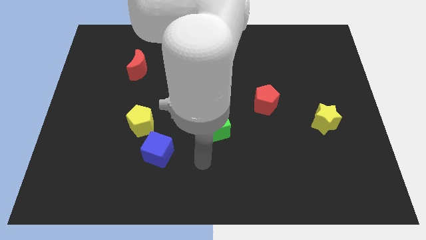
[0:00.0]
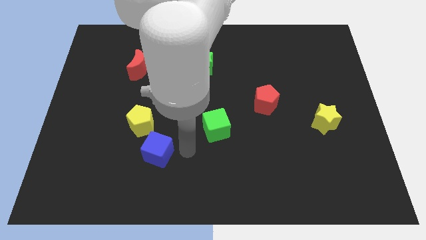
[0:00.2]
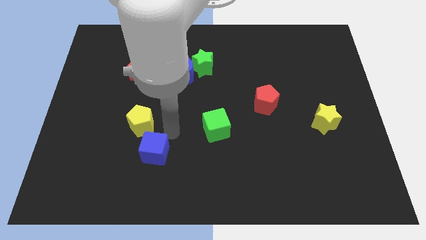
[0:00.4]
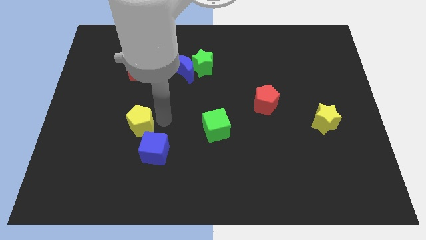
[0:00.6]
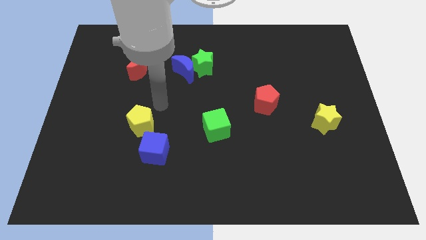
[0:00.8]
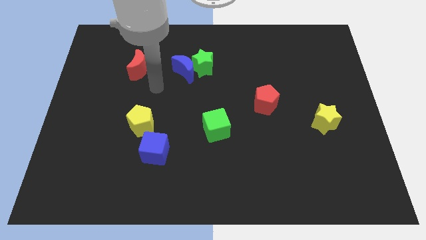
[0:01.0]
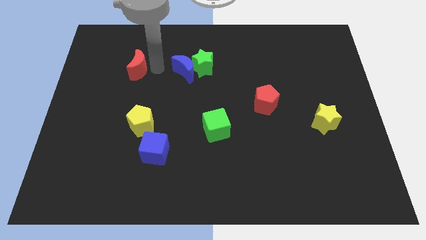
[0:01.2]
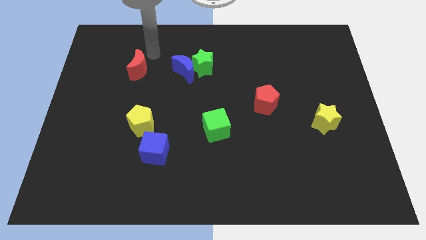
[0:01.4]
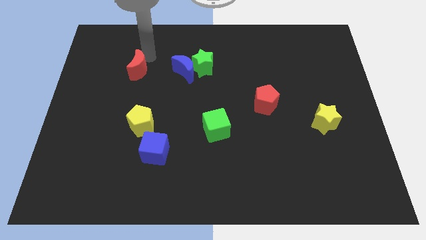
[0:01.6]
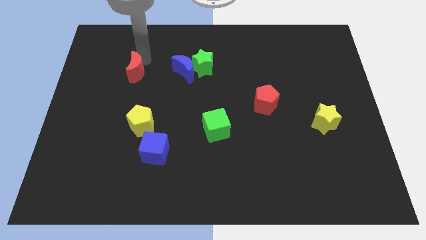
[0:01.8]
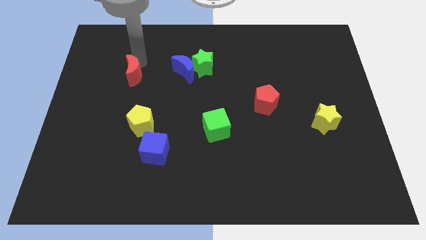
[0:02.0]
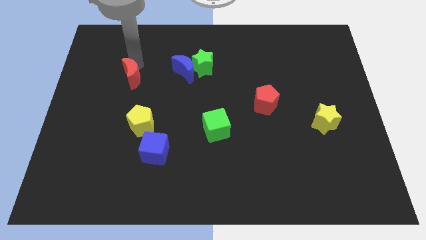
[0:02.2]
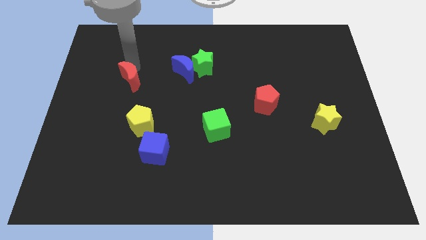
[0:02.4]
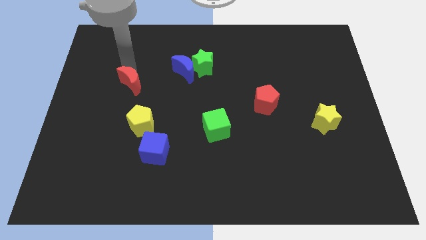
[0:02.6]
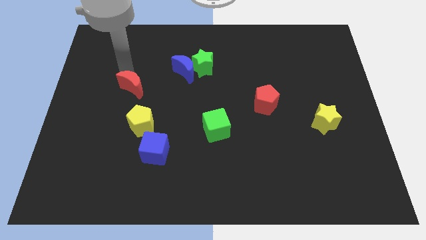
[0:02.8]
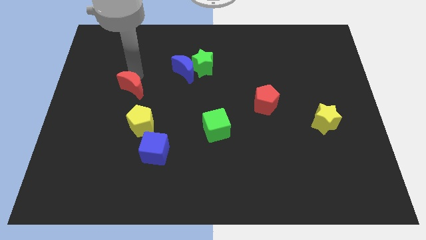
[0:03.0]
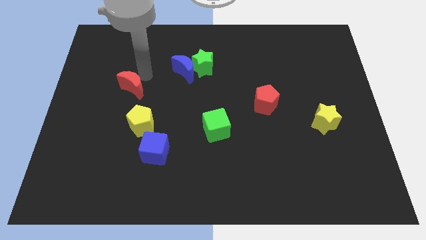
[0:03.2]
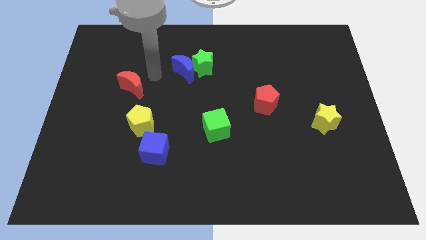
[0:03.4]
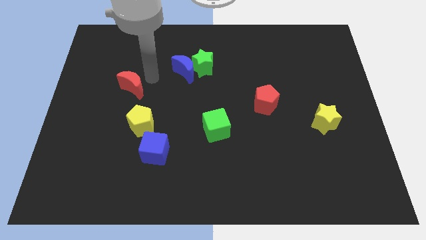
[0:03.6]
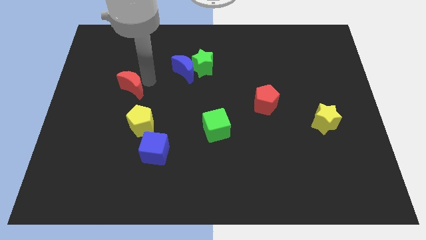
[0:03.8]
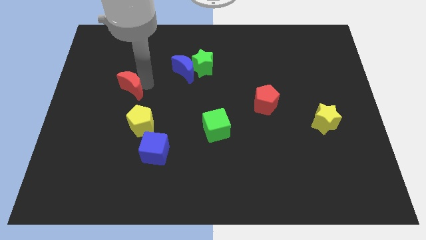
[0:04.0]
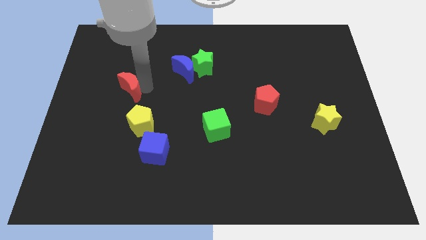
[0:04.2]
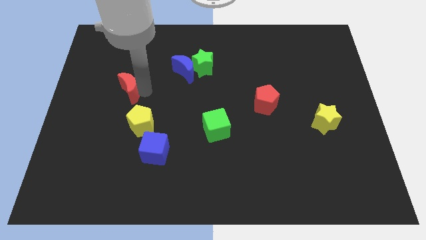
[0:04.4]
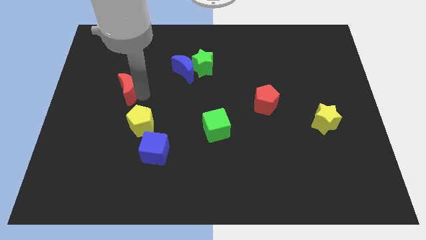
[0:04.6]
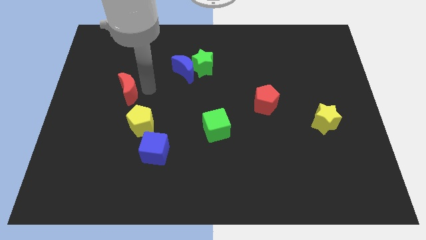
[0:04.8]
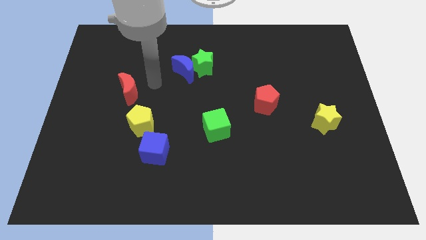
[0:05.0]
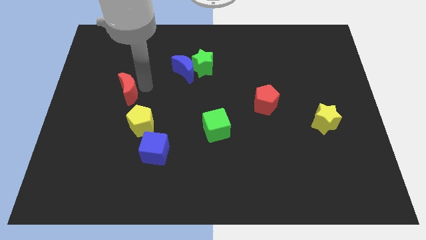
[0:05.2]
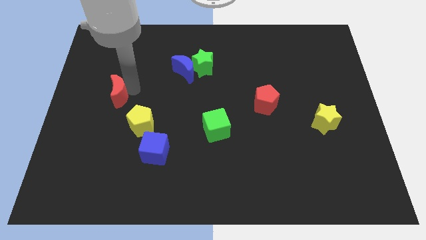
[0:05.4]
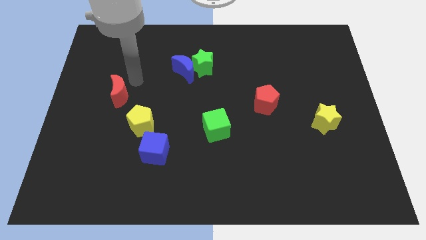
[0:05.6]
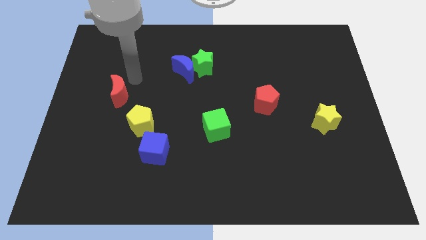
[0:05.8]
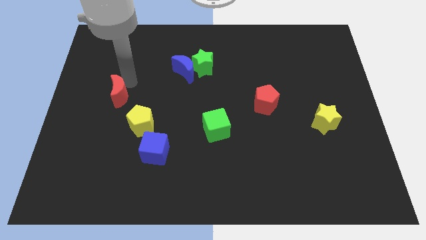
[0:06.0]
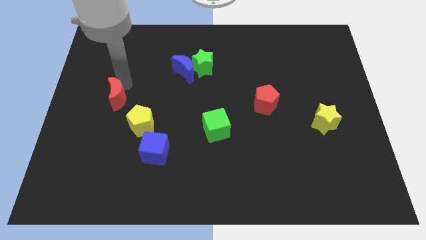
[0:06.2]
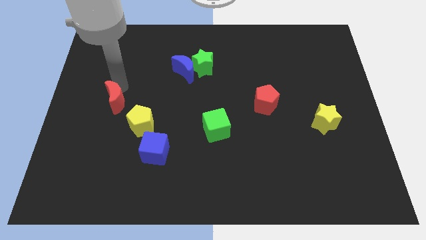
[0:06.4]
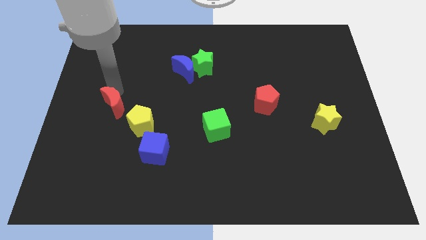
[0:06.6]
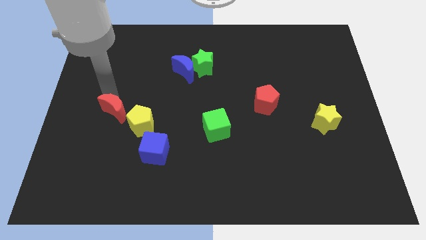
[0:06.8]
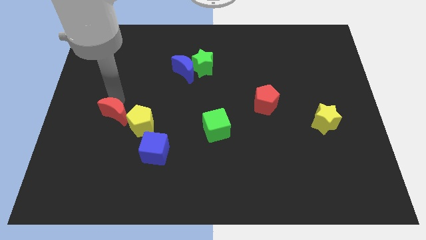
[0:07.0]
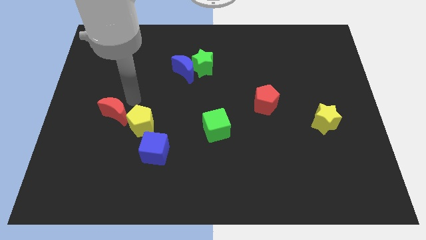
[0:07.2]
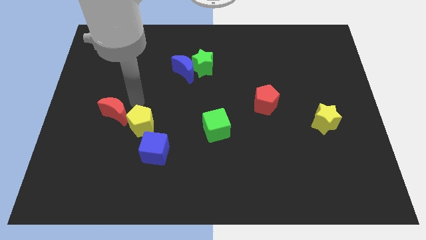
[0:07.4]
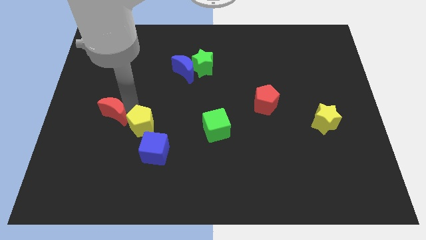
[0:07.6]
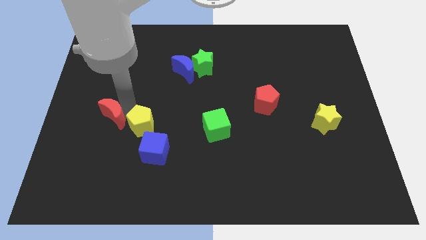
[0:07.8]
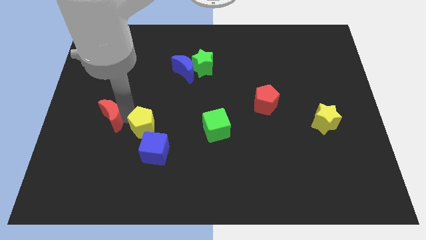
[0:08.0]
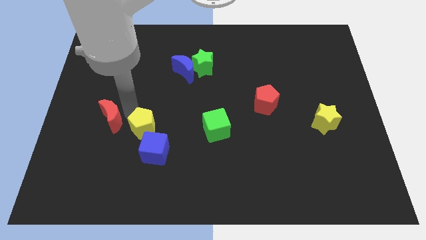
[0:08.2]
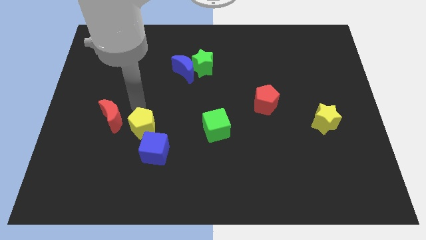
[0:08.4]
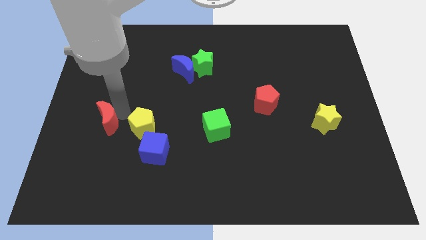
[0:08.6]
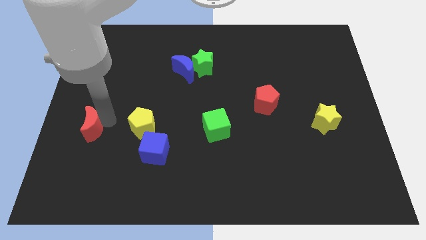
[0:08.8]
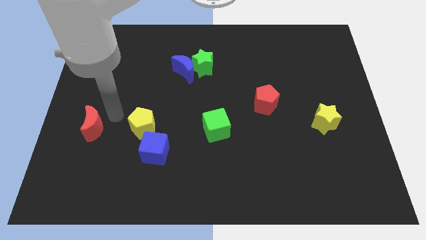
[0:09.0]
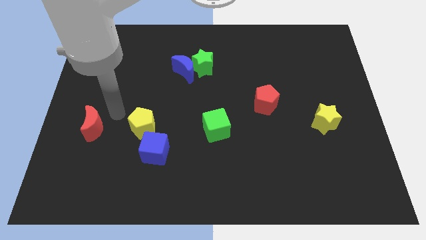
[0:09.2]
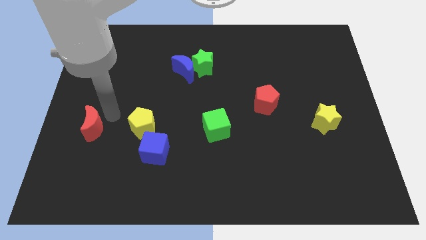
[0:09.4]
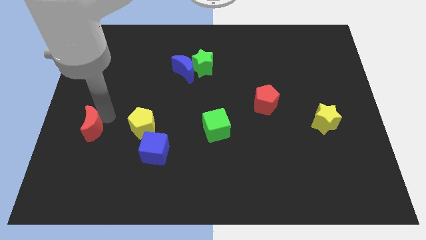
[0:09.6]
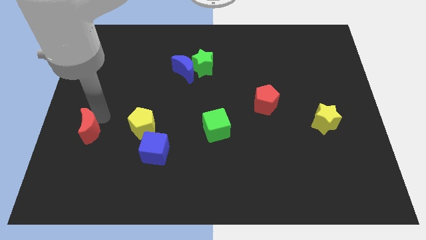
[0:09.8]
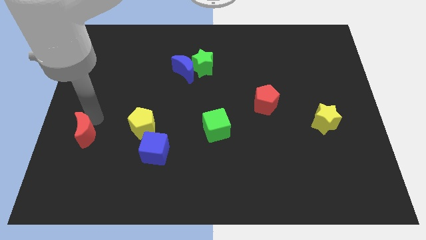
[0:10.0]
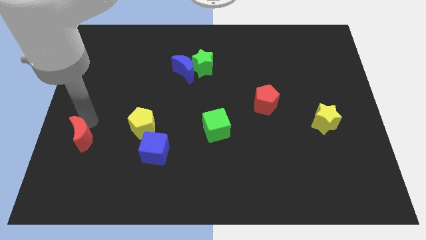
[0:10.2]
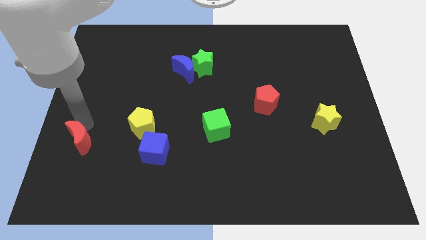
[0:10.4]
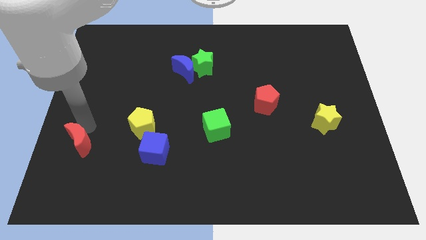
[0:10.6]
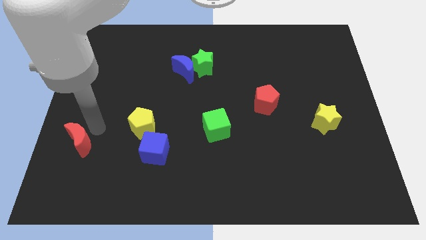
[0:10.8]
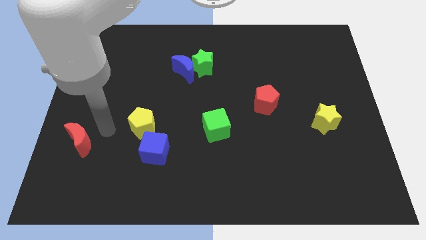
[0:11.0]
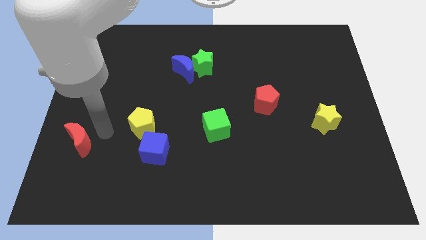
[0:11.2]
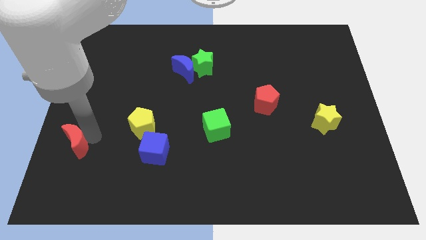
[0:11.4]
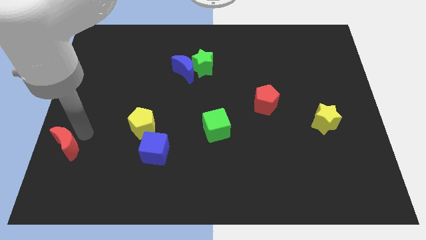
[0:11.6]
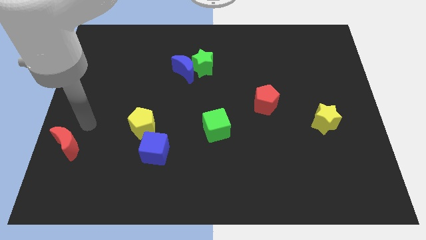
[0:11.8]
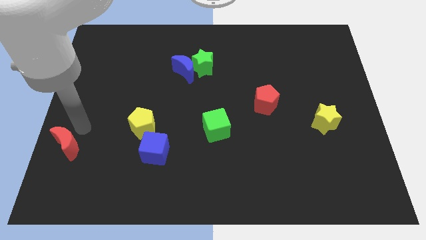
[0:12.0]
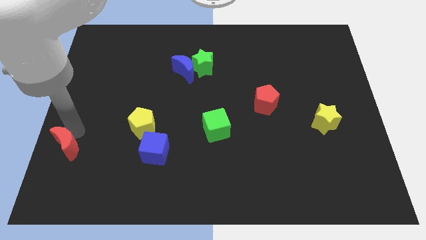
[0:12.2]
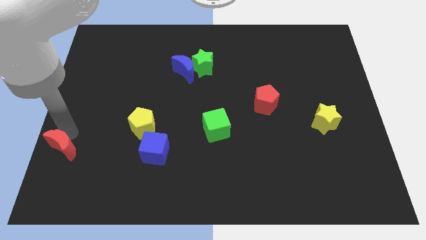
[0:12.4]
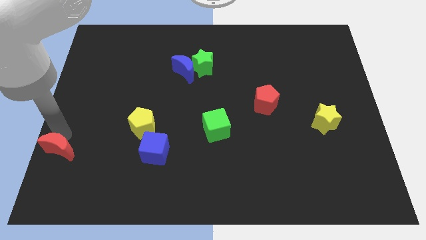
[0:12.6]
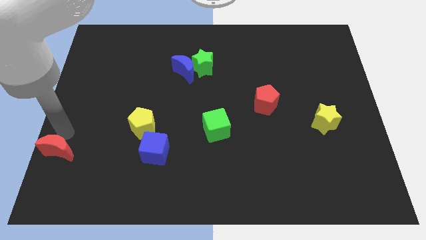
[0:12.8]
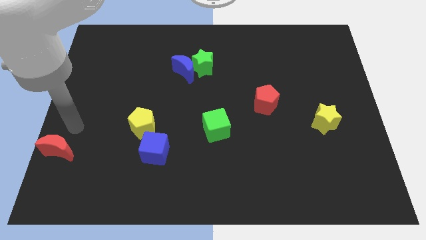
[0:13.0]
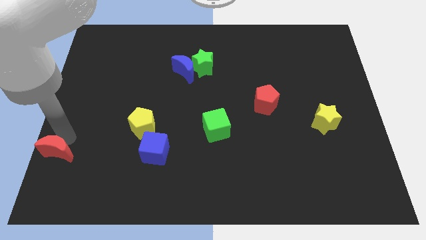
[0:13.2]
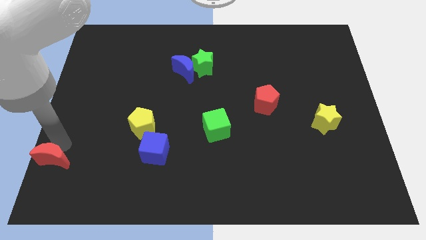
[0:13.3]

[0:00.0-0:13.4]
put the red moon to the bottom left
